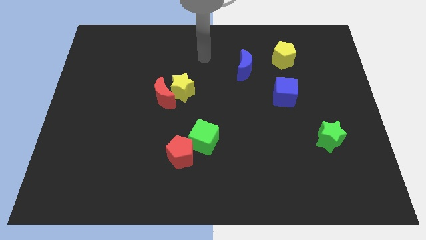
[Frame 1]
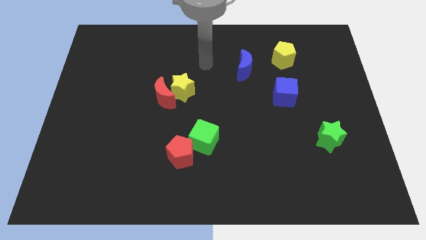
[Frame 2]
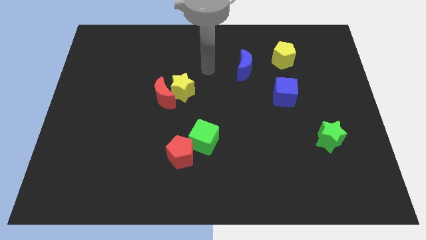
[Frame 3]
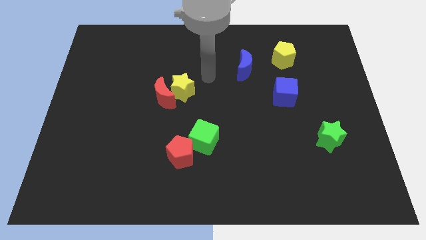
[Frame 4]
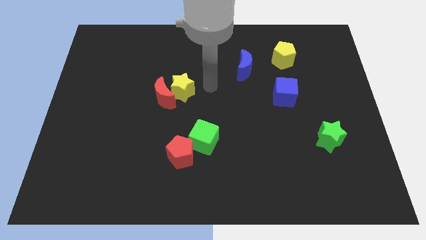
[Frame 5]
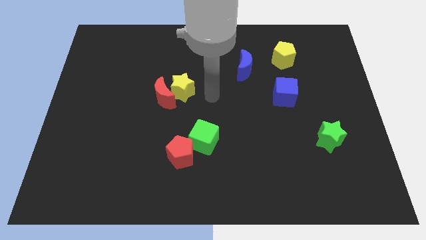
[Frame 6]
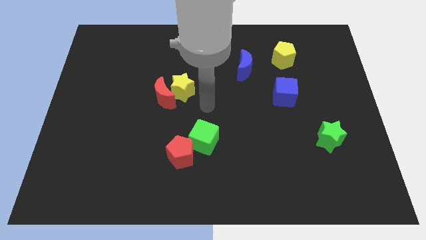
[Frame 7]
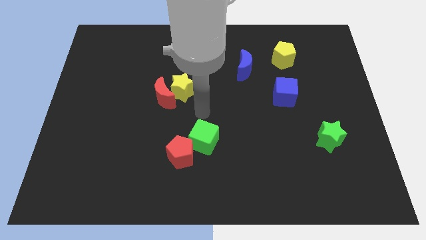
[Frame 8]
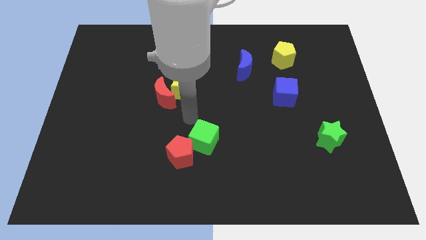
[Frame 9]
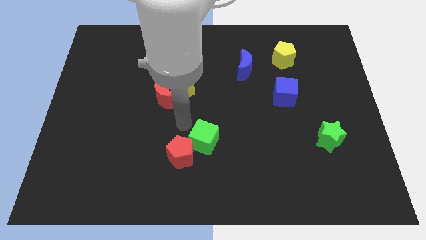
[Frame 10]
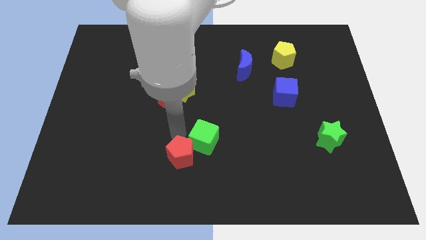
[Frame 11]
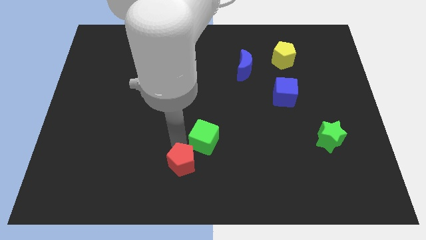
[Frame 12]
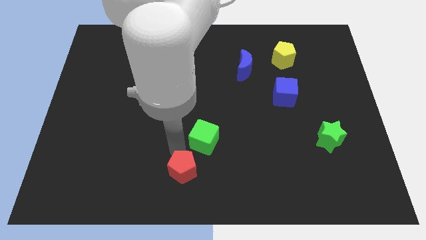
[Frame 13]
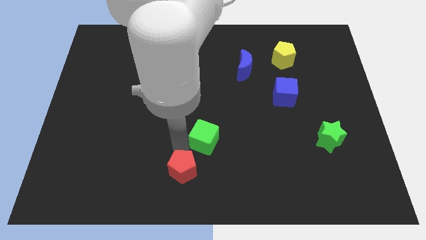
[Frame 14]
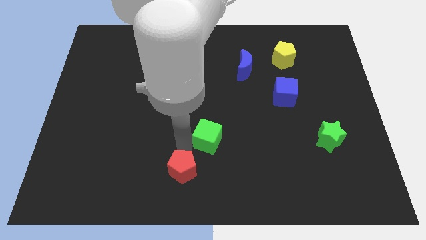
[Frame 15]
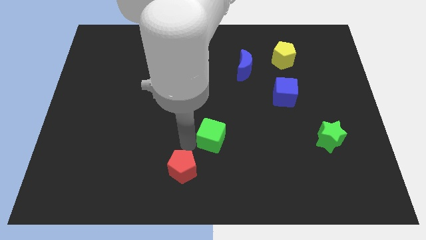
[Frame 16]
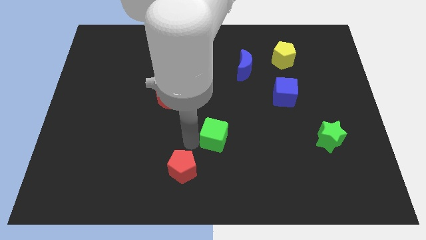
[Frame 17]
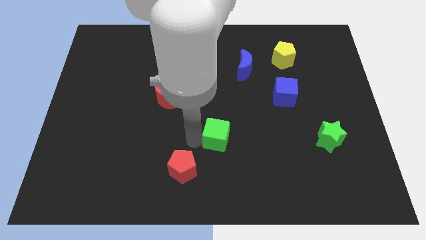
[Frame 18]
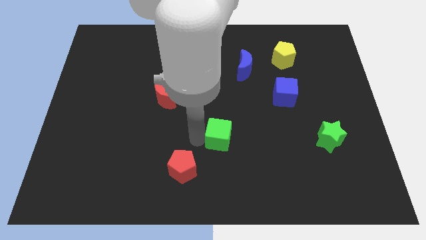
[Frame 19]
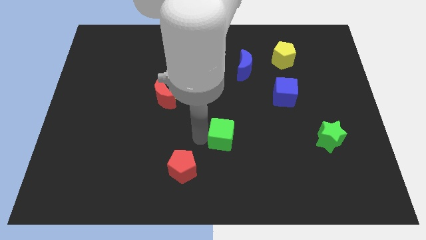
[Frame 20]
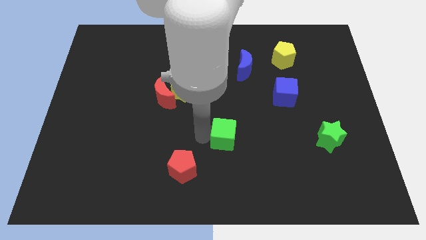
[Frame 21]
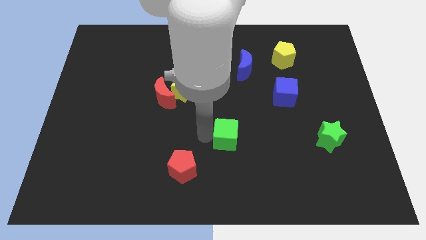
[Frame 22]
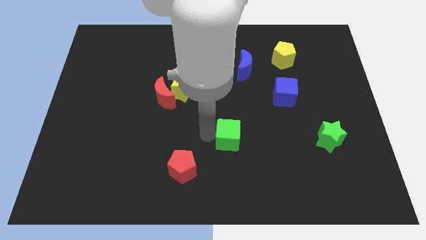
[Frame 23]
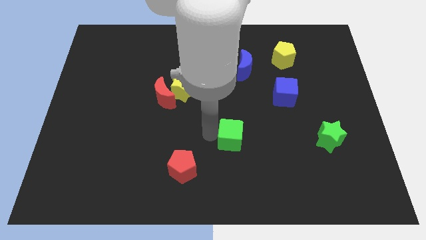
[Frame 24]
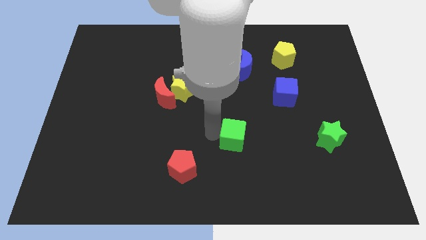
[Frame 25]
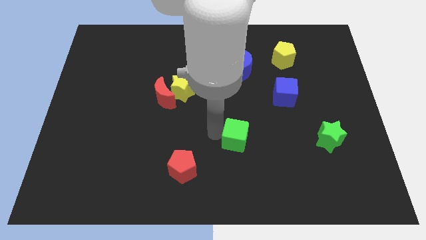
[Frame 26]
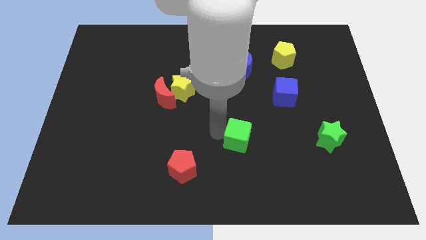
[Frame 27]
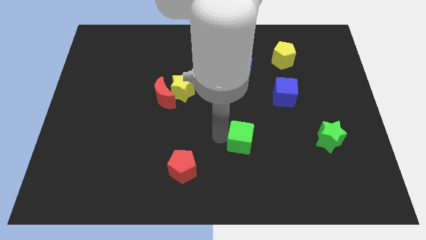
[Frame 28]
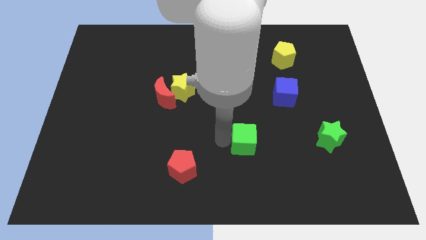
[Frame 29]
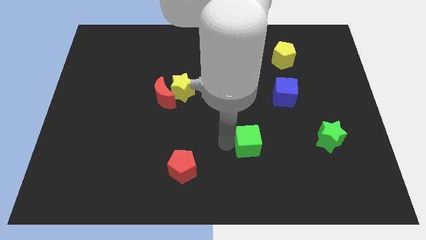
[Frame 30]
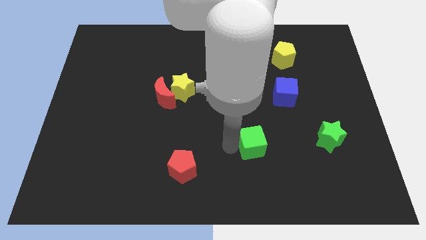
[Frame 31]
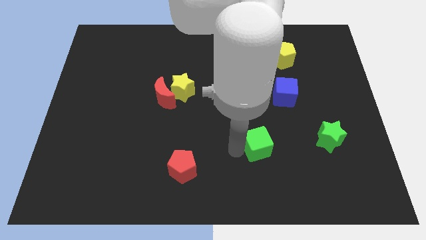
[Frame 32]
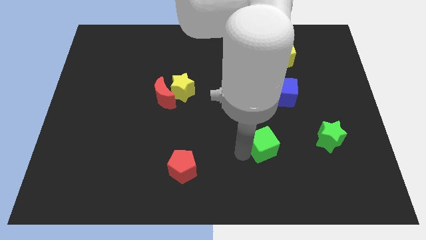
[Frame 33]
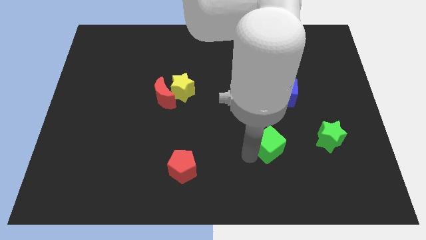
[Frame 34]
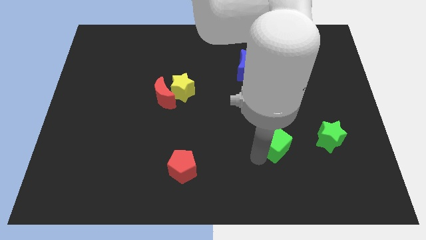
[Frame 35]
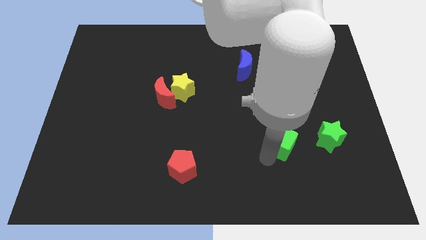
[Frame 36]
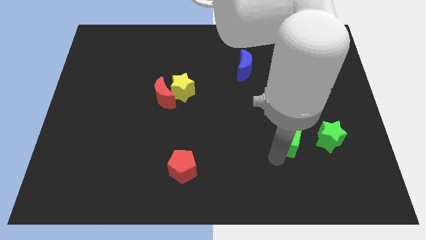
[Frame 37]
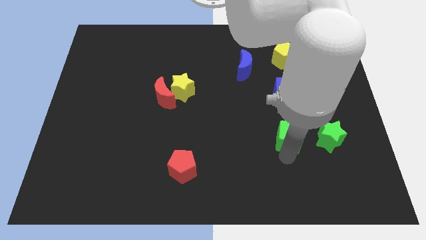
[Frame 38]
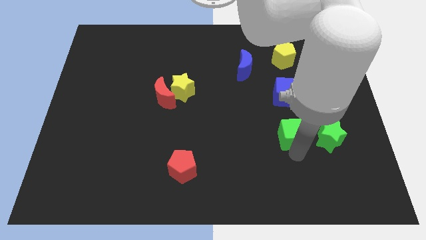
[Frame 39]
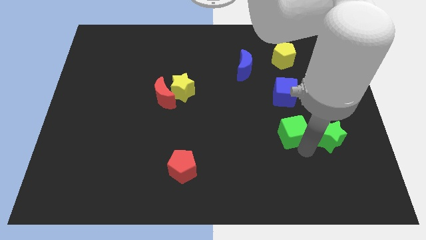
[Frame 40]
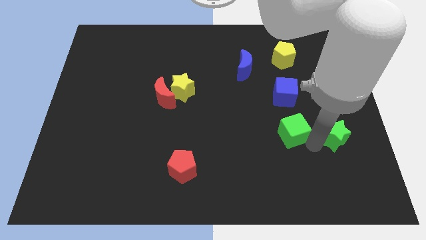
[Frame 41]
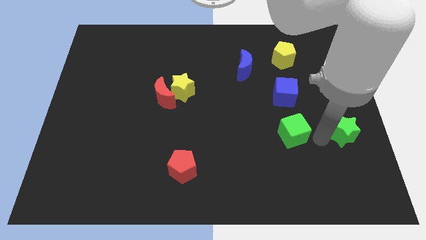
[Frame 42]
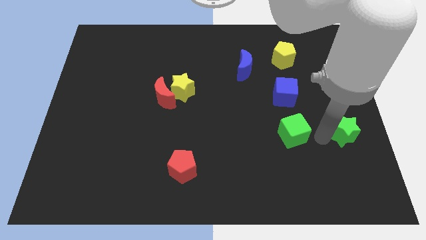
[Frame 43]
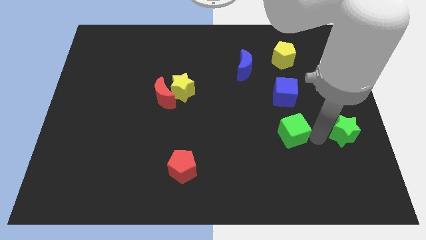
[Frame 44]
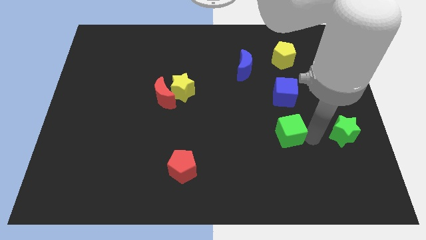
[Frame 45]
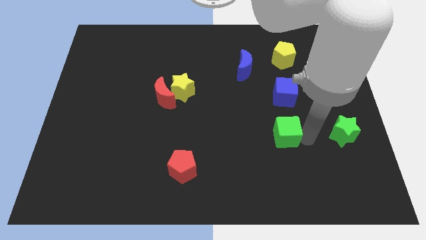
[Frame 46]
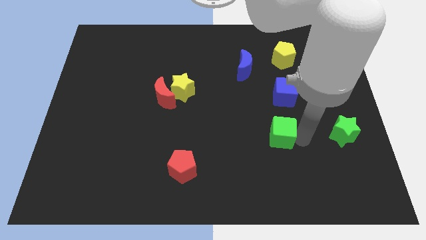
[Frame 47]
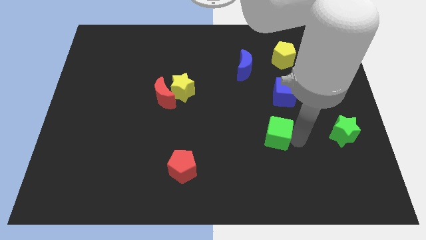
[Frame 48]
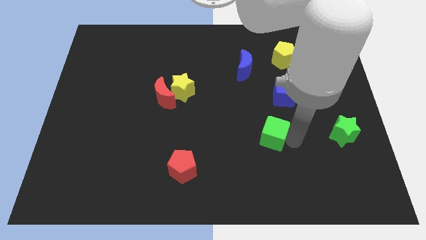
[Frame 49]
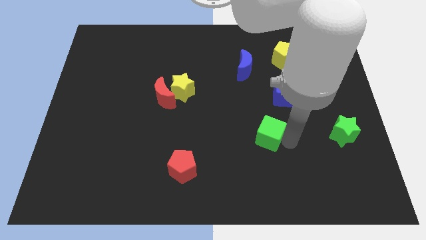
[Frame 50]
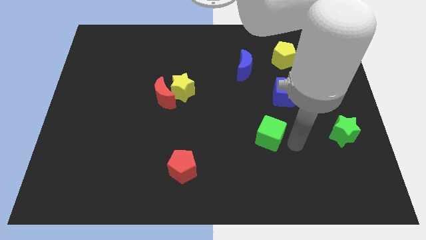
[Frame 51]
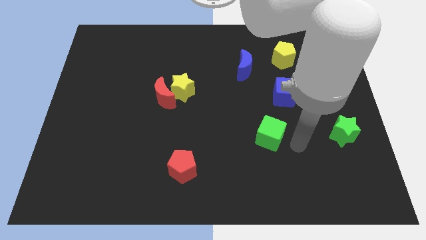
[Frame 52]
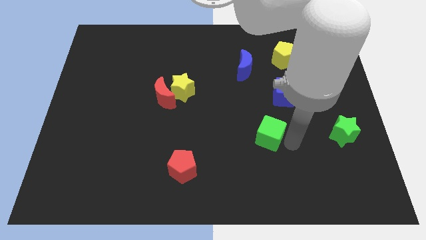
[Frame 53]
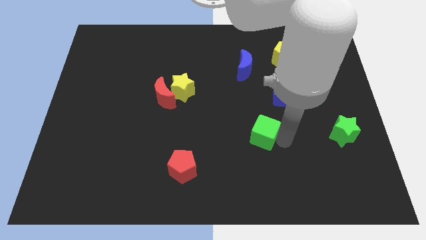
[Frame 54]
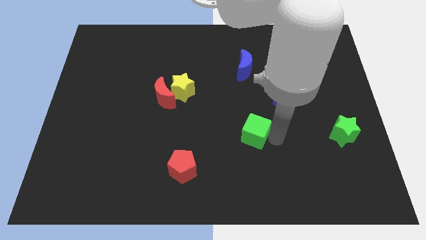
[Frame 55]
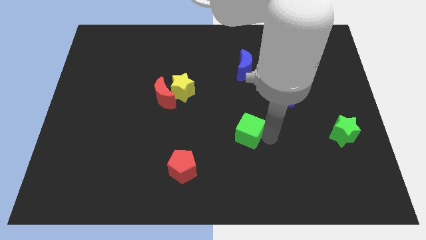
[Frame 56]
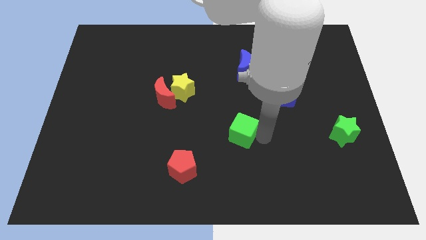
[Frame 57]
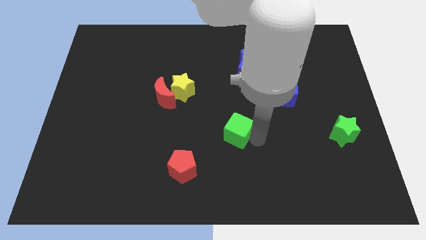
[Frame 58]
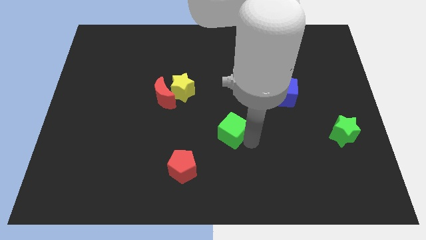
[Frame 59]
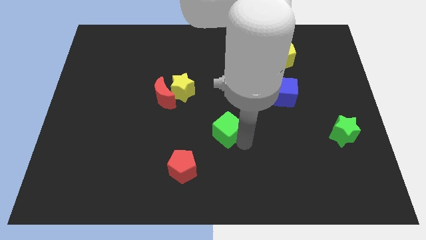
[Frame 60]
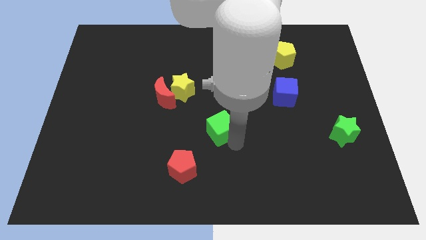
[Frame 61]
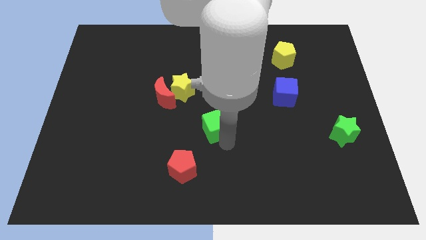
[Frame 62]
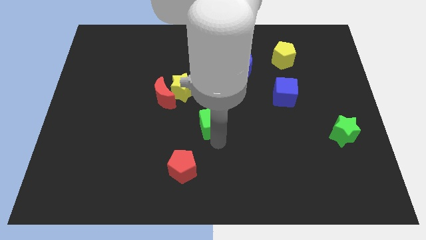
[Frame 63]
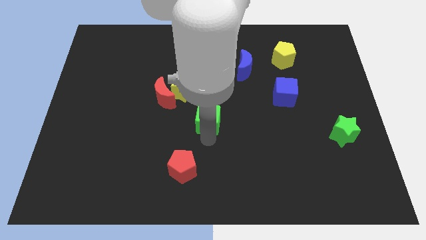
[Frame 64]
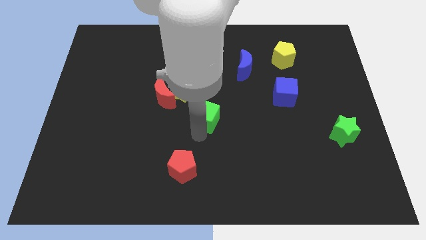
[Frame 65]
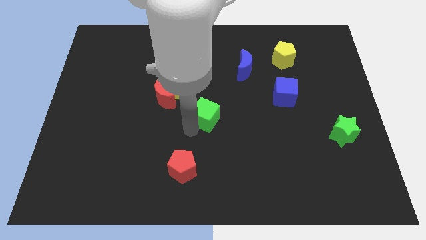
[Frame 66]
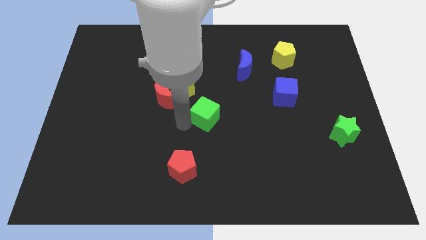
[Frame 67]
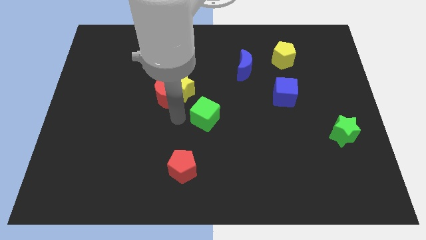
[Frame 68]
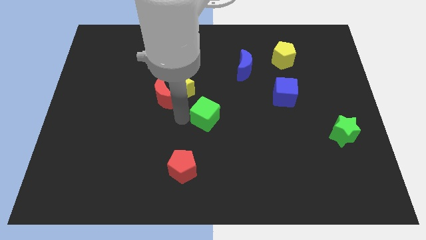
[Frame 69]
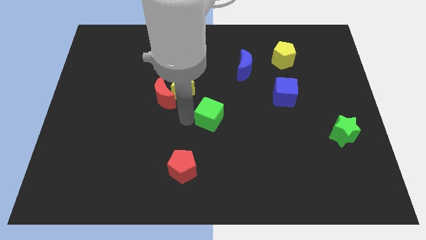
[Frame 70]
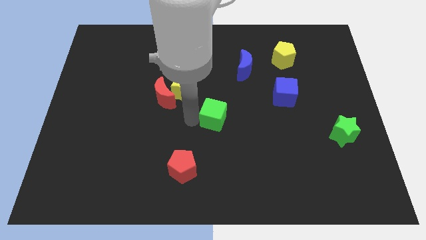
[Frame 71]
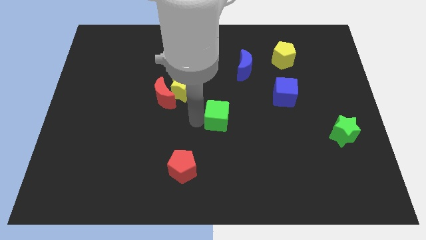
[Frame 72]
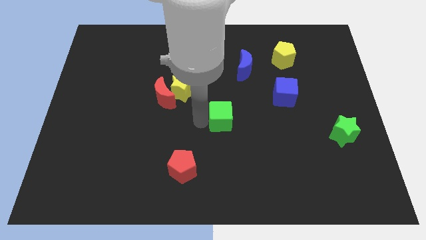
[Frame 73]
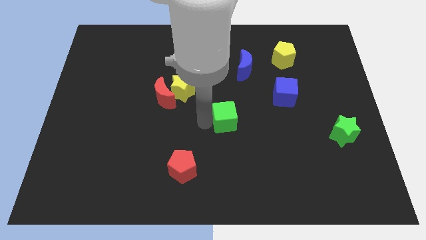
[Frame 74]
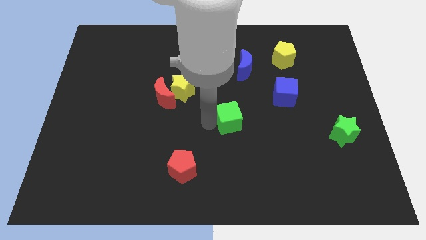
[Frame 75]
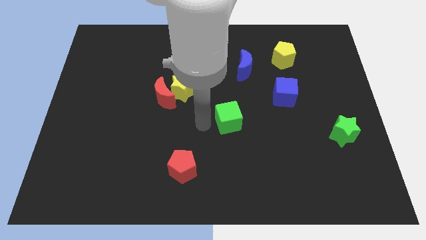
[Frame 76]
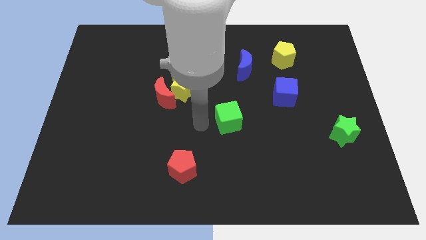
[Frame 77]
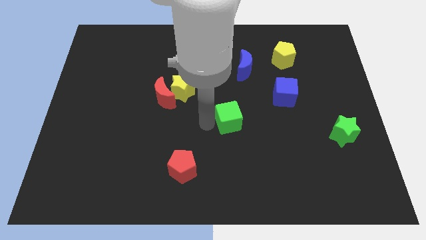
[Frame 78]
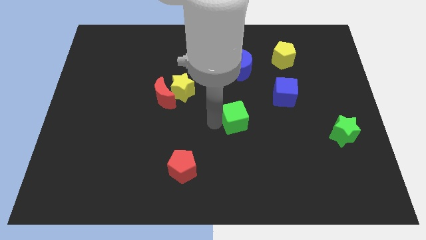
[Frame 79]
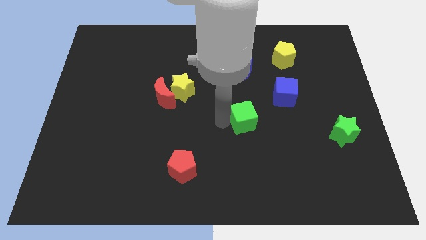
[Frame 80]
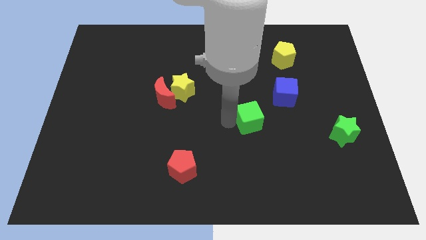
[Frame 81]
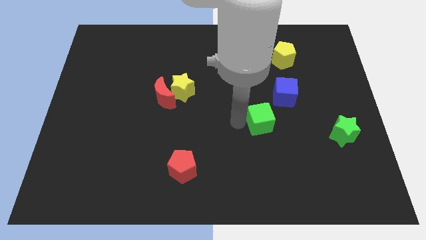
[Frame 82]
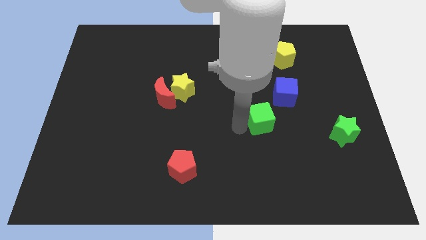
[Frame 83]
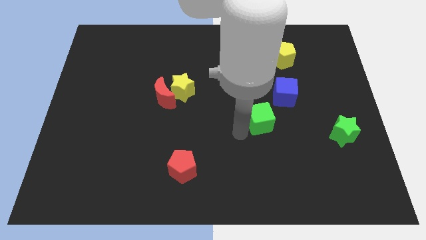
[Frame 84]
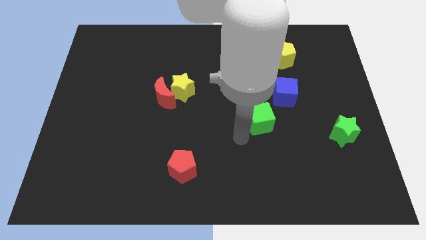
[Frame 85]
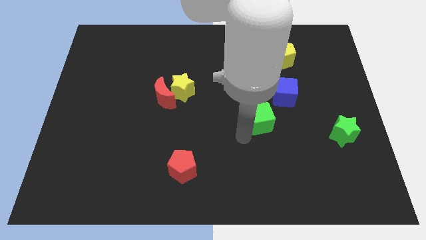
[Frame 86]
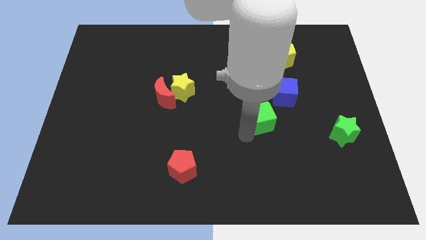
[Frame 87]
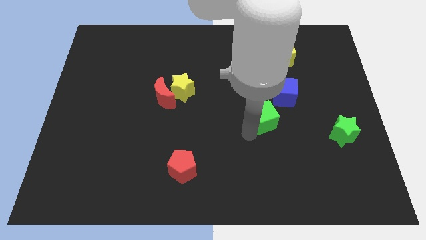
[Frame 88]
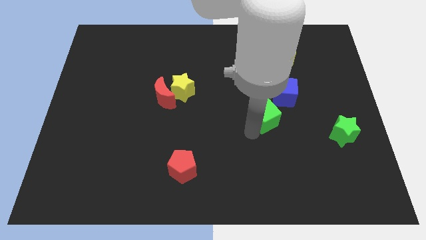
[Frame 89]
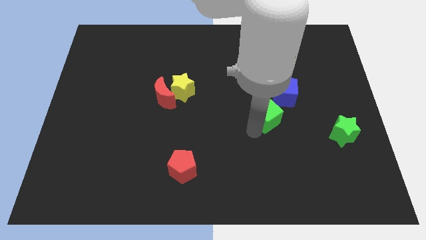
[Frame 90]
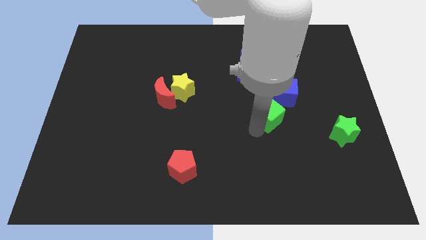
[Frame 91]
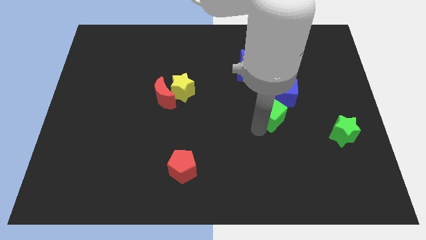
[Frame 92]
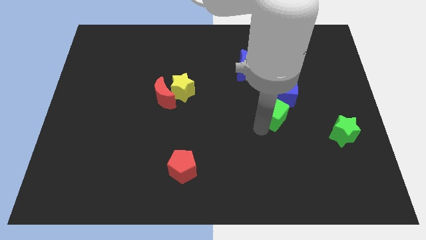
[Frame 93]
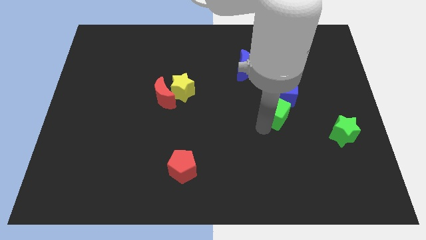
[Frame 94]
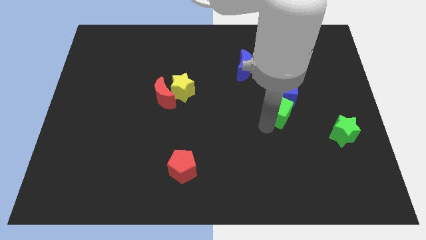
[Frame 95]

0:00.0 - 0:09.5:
push the green cube close to the blue cube
